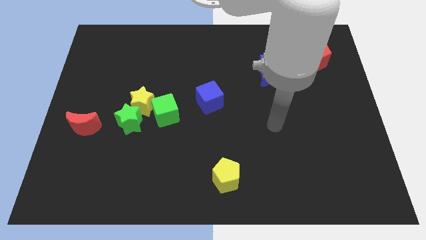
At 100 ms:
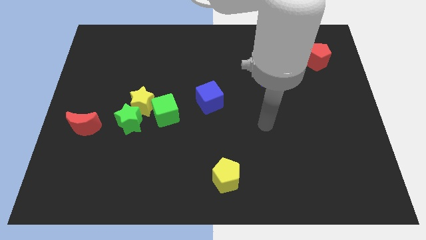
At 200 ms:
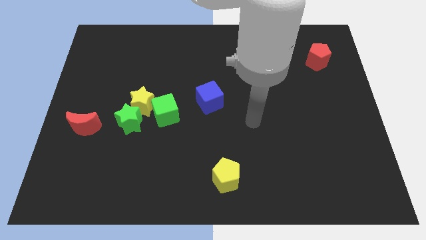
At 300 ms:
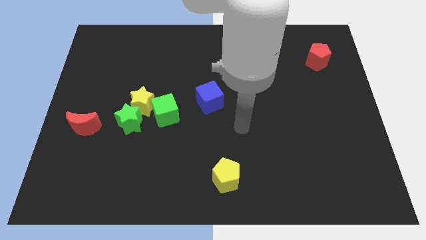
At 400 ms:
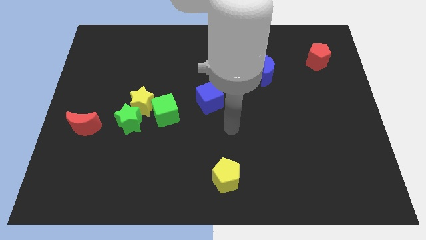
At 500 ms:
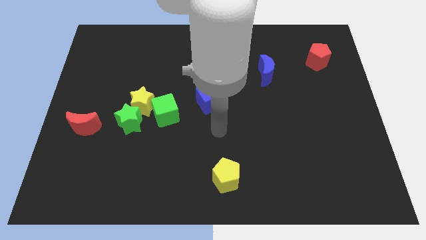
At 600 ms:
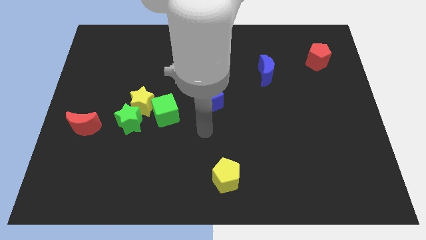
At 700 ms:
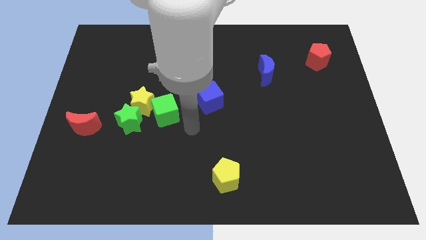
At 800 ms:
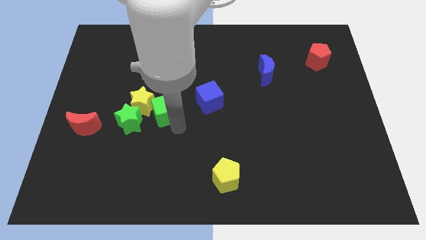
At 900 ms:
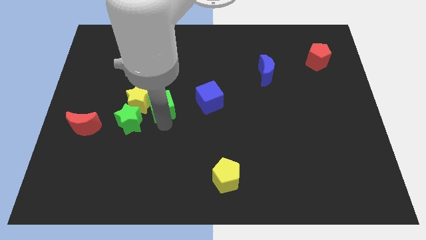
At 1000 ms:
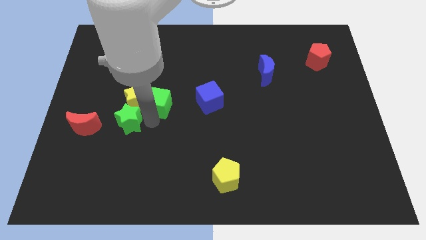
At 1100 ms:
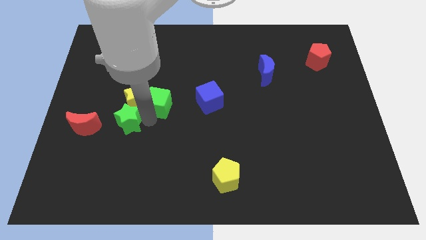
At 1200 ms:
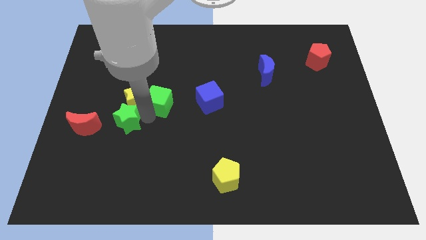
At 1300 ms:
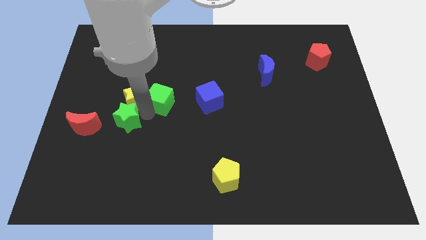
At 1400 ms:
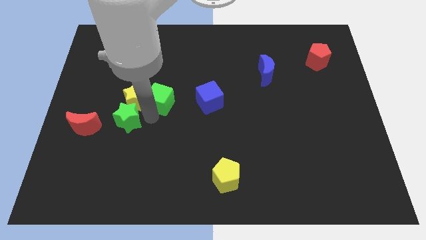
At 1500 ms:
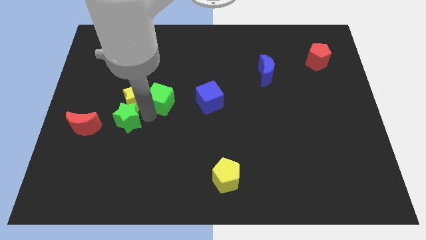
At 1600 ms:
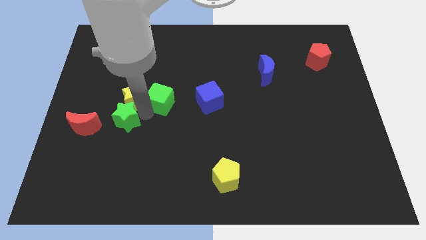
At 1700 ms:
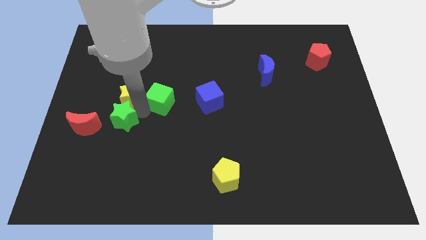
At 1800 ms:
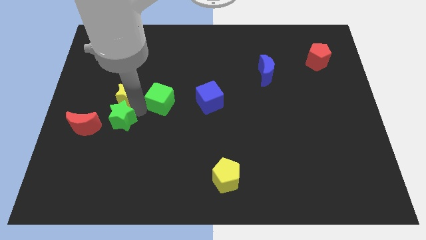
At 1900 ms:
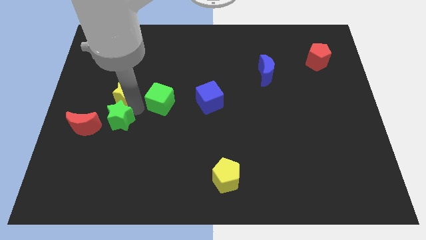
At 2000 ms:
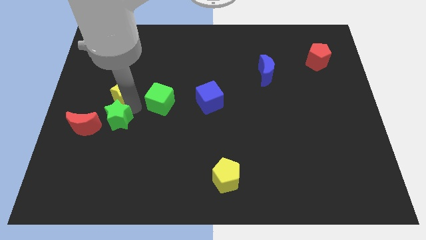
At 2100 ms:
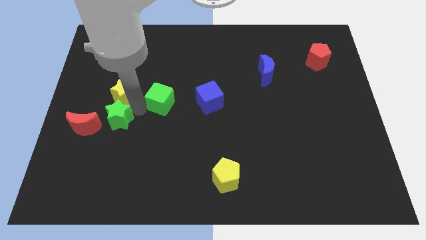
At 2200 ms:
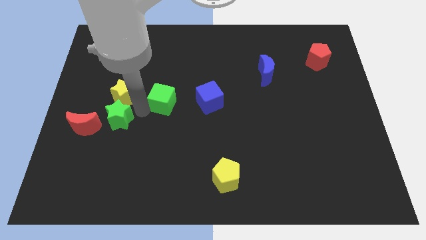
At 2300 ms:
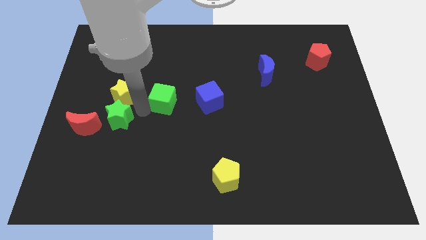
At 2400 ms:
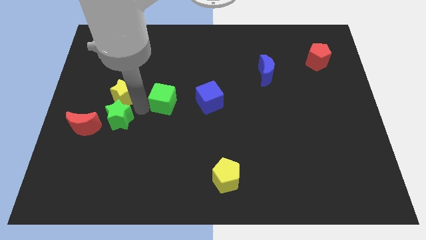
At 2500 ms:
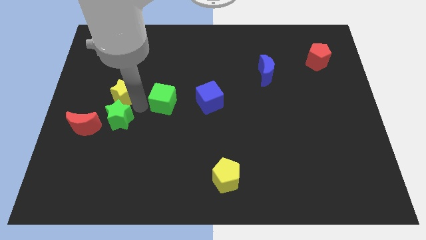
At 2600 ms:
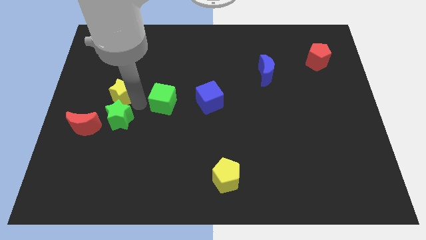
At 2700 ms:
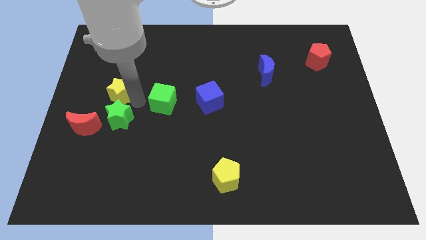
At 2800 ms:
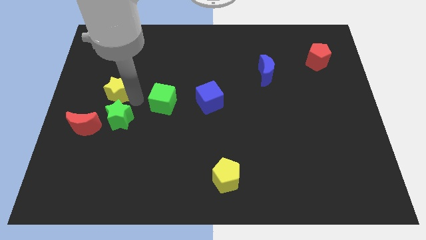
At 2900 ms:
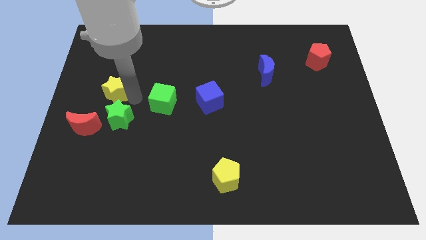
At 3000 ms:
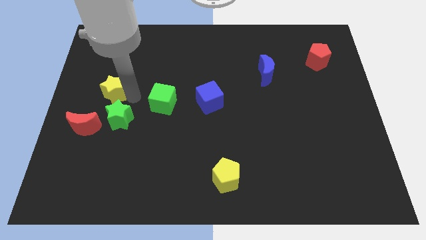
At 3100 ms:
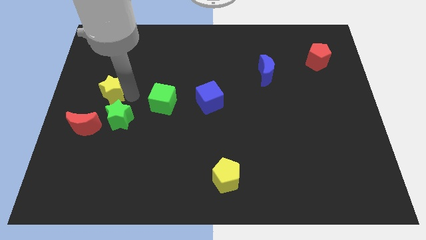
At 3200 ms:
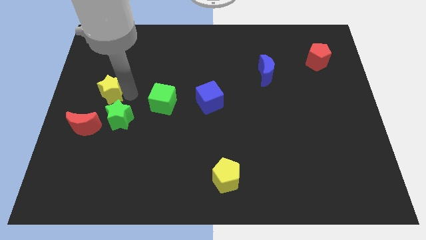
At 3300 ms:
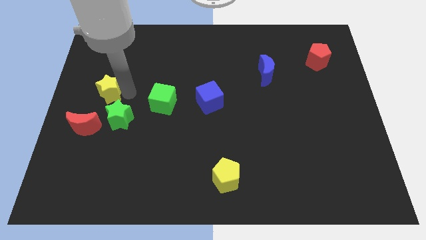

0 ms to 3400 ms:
move the yellow star away from the green star and green cube

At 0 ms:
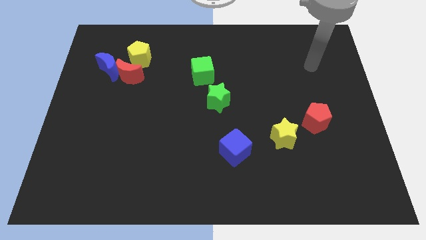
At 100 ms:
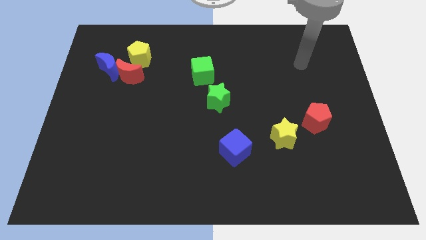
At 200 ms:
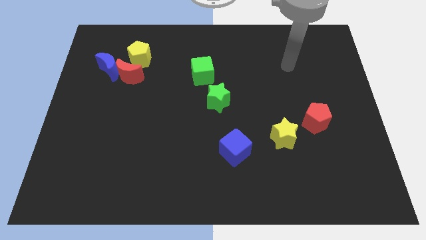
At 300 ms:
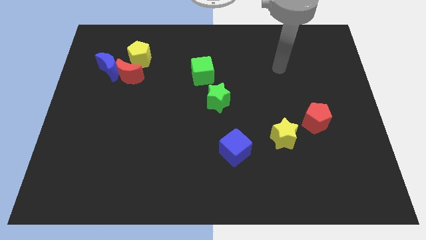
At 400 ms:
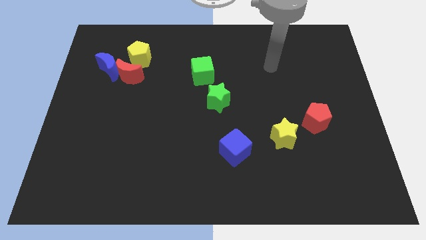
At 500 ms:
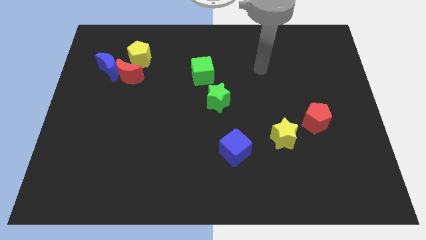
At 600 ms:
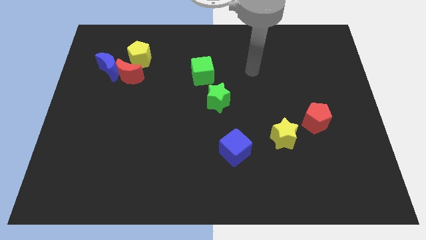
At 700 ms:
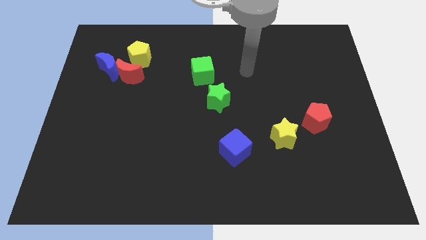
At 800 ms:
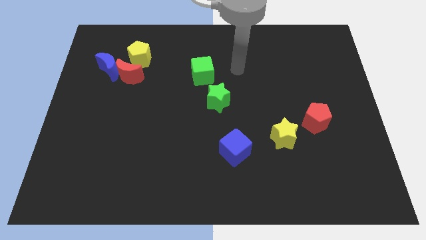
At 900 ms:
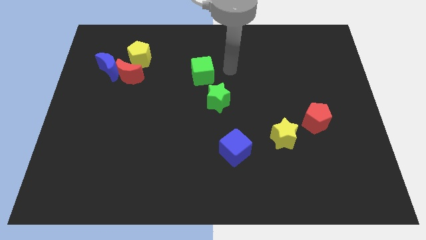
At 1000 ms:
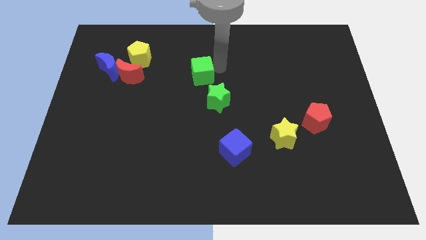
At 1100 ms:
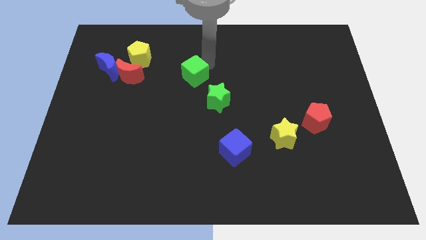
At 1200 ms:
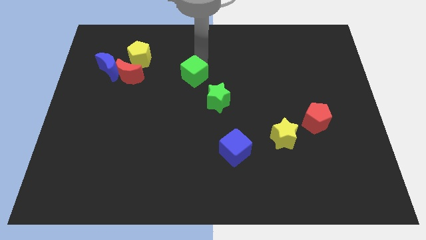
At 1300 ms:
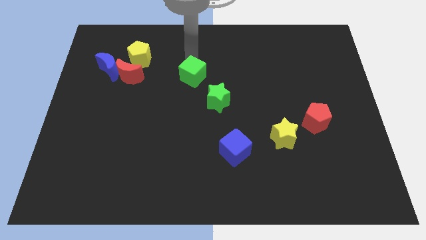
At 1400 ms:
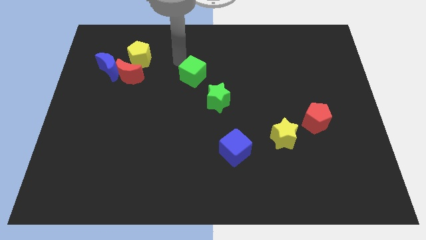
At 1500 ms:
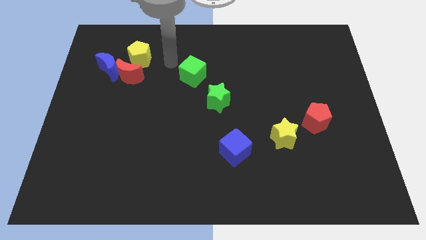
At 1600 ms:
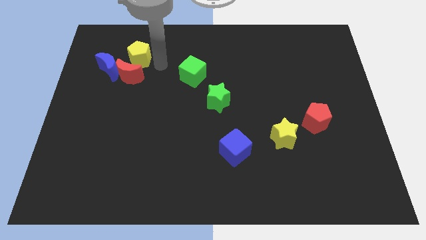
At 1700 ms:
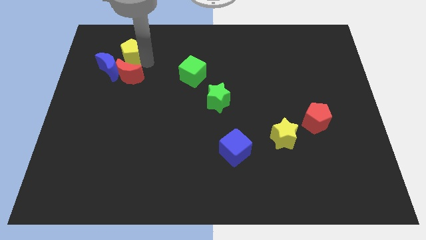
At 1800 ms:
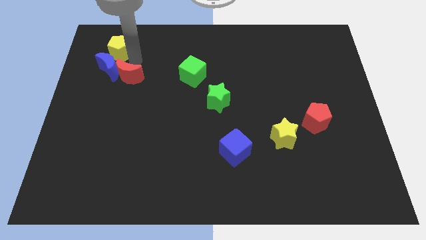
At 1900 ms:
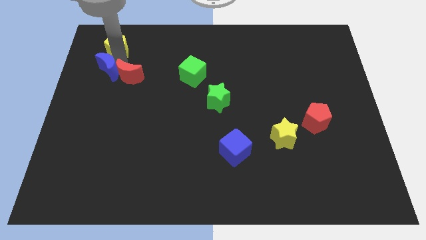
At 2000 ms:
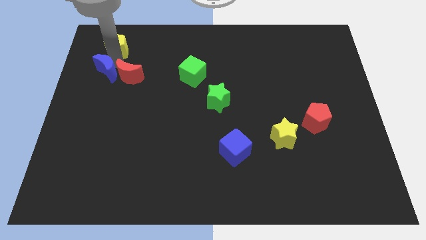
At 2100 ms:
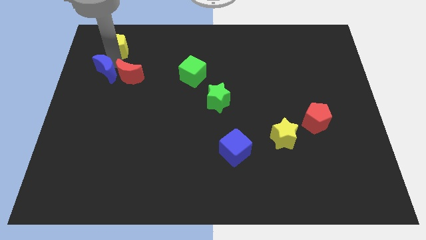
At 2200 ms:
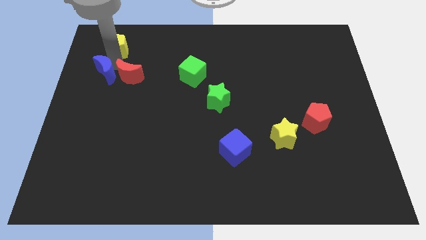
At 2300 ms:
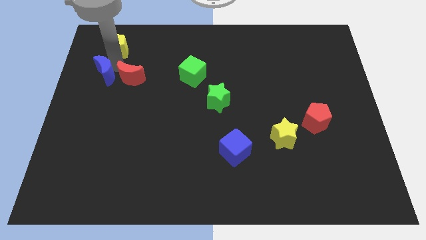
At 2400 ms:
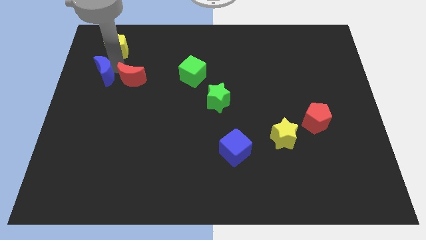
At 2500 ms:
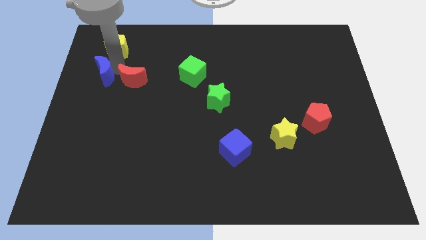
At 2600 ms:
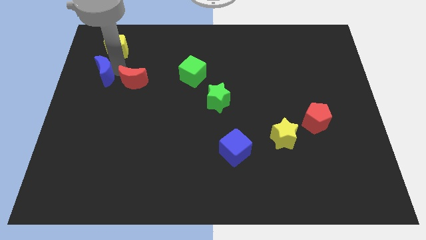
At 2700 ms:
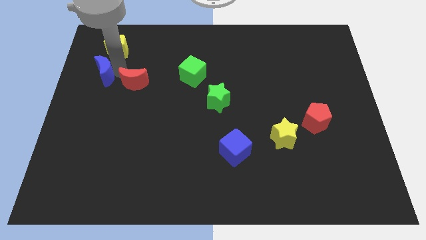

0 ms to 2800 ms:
pull the red moon apart from the blue moon and yellow pentagon

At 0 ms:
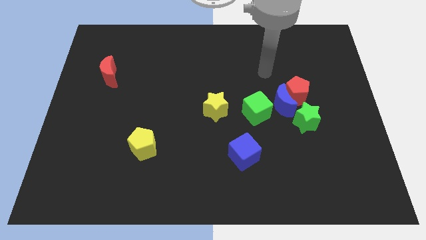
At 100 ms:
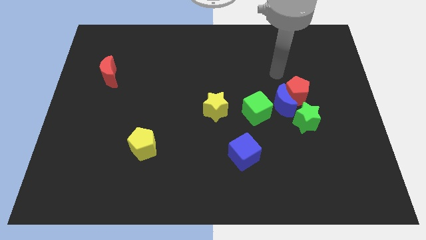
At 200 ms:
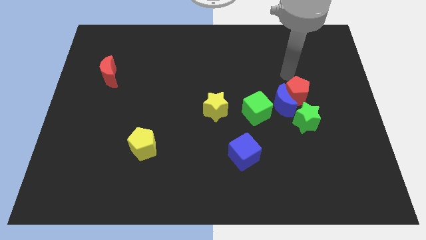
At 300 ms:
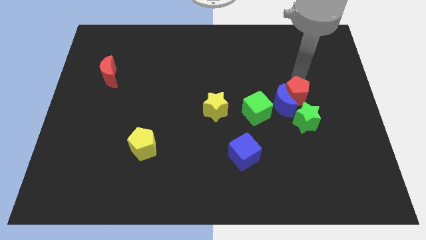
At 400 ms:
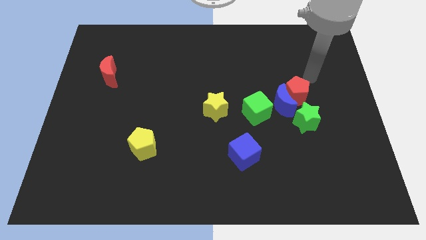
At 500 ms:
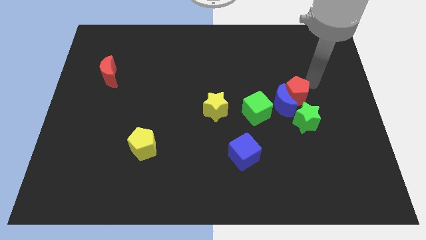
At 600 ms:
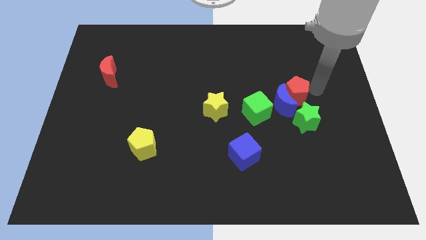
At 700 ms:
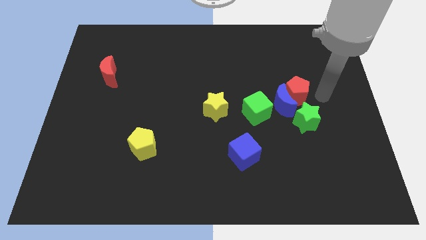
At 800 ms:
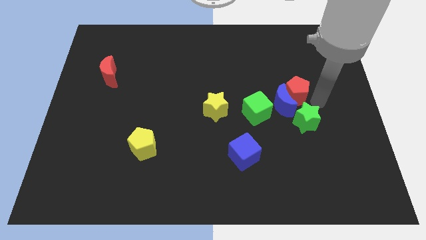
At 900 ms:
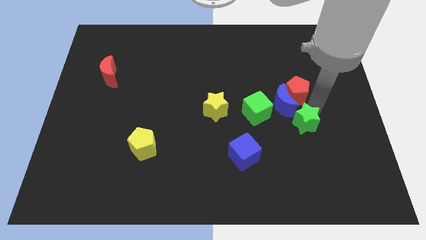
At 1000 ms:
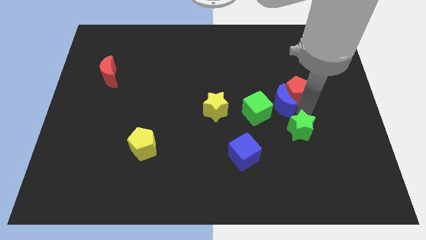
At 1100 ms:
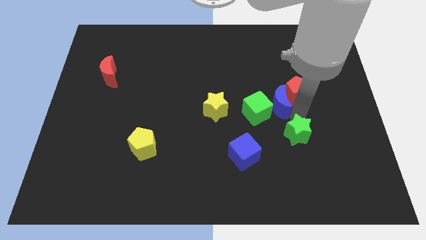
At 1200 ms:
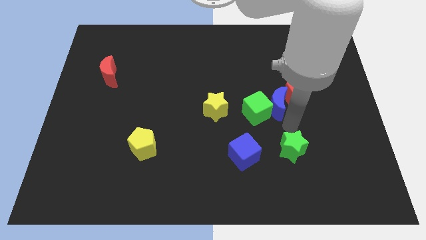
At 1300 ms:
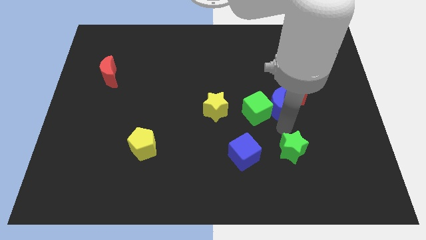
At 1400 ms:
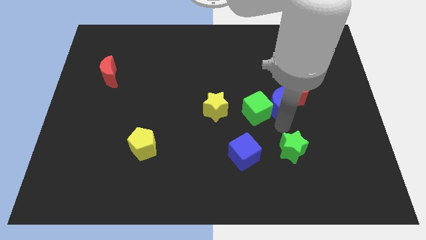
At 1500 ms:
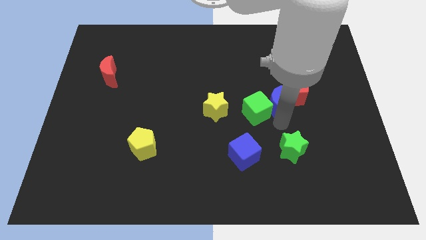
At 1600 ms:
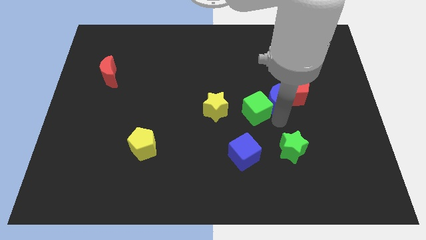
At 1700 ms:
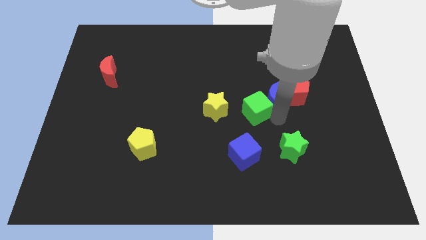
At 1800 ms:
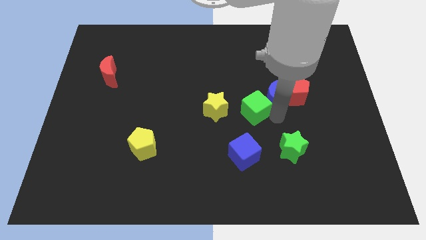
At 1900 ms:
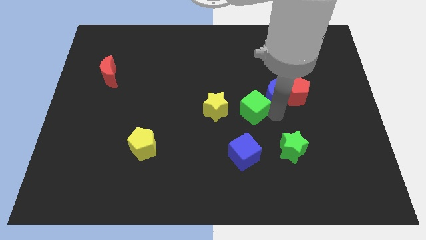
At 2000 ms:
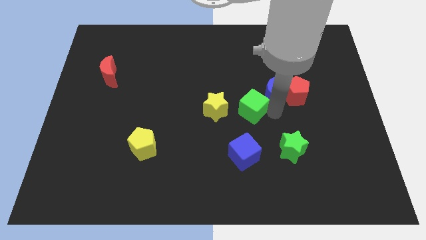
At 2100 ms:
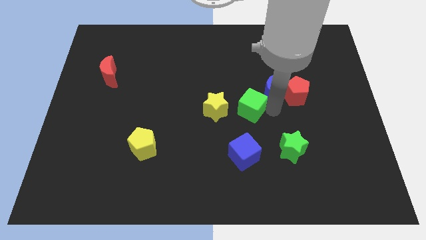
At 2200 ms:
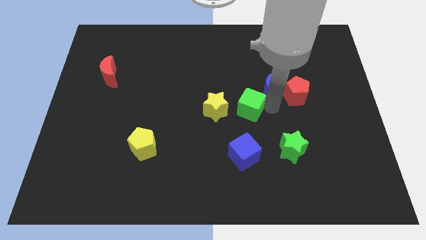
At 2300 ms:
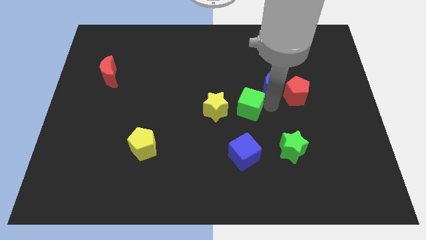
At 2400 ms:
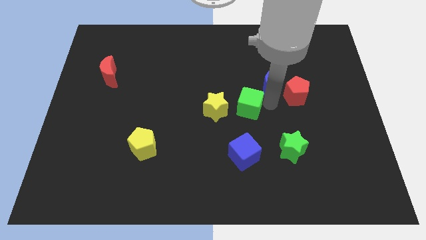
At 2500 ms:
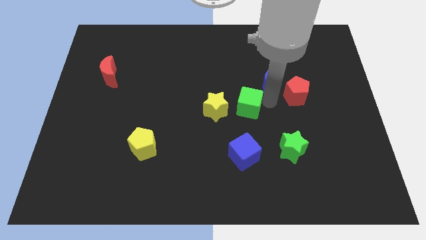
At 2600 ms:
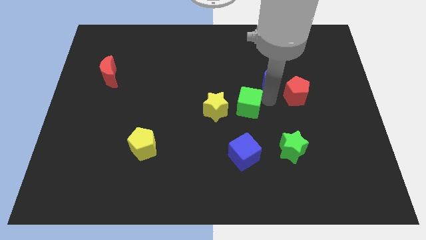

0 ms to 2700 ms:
move the blue moon away from the red pentagon, green cube, and green star

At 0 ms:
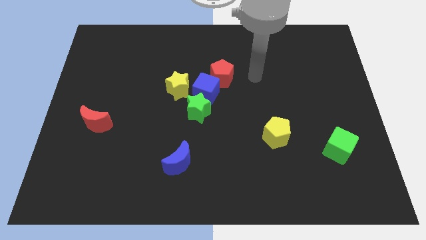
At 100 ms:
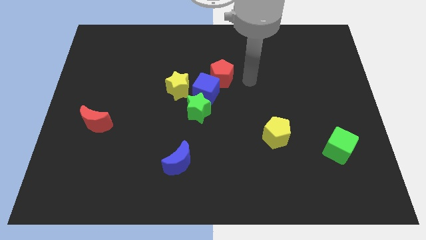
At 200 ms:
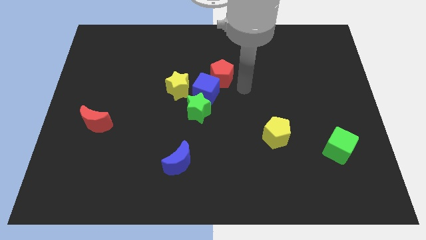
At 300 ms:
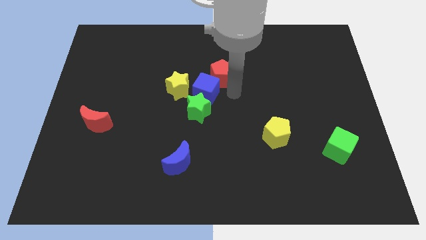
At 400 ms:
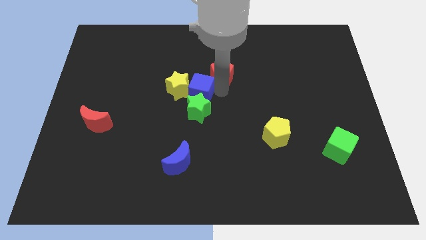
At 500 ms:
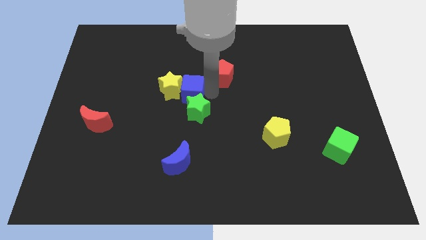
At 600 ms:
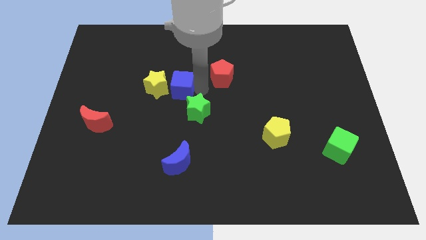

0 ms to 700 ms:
separate the red pentagon from the blue cube
